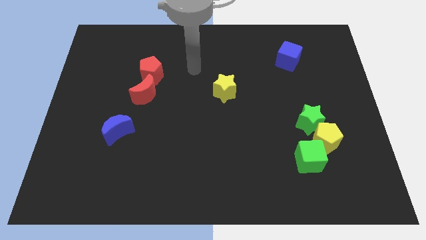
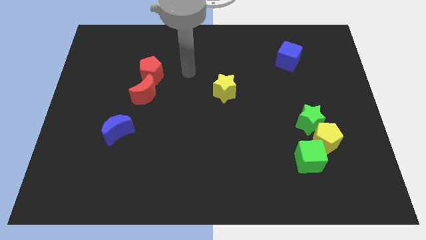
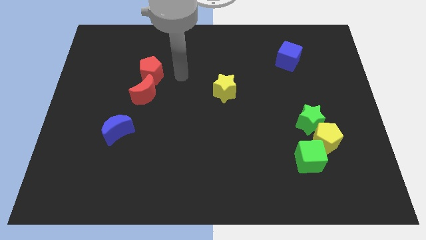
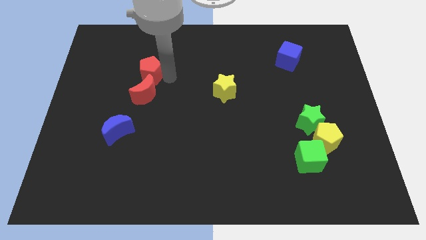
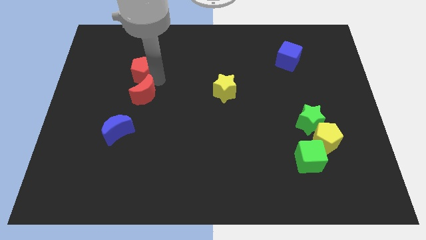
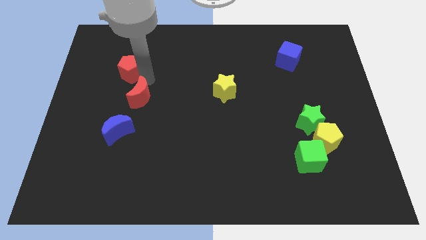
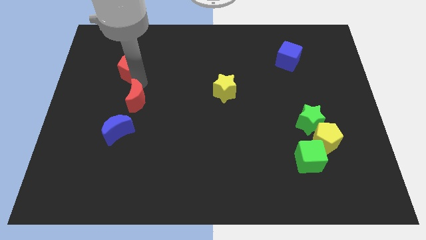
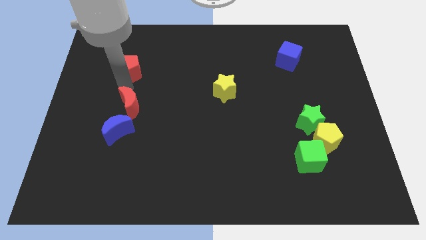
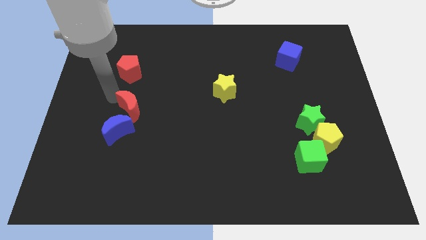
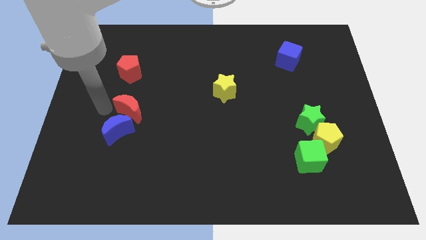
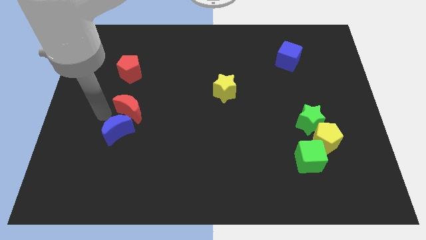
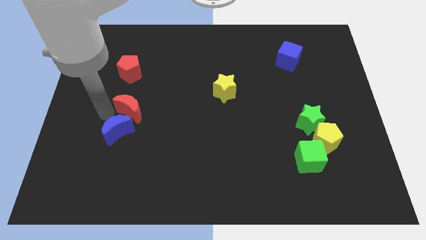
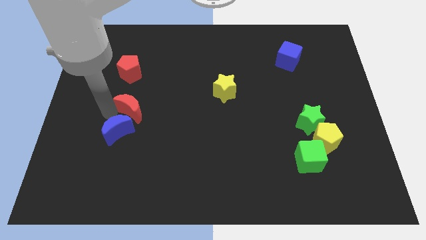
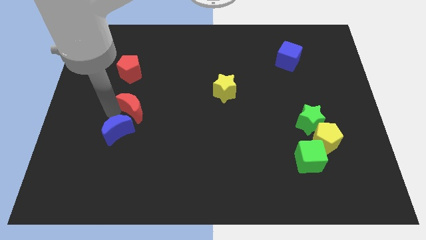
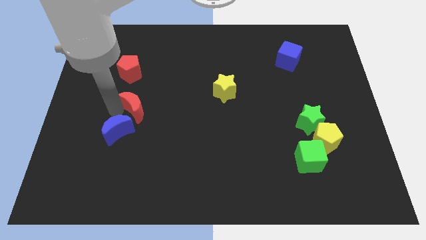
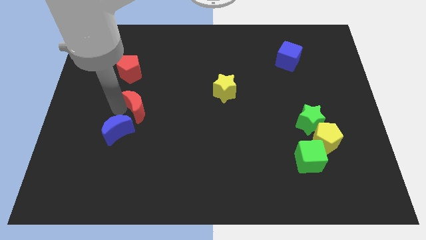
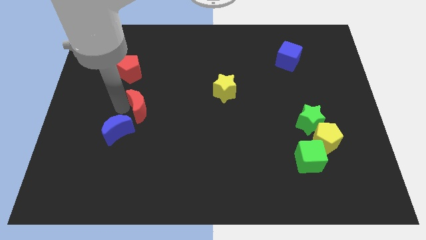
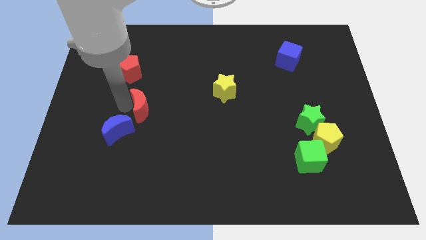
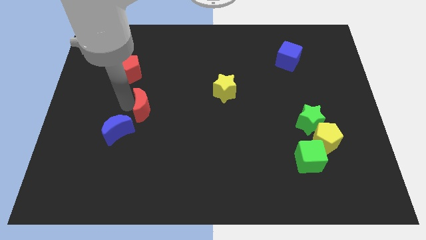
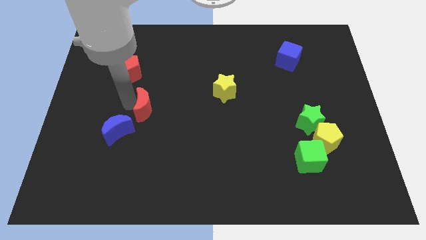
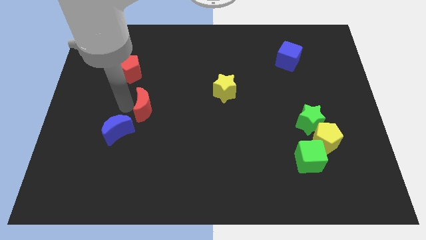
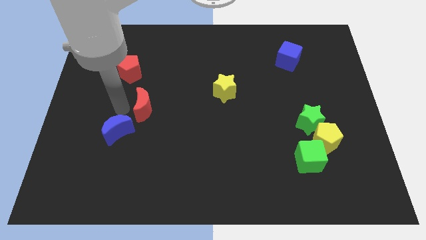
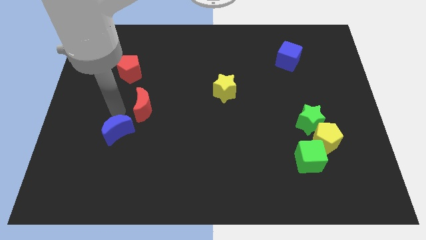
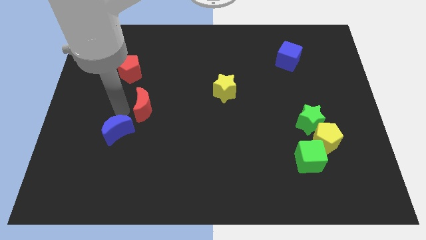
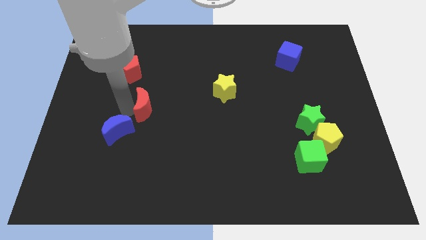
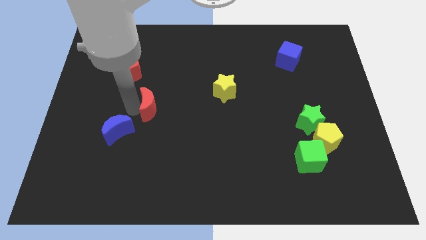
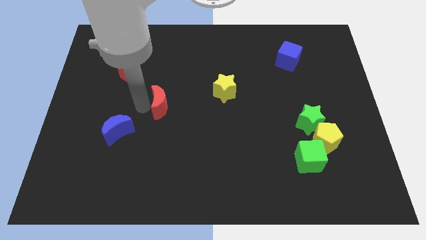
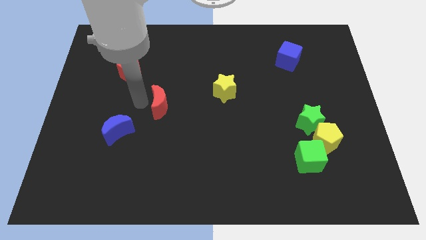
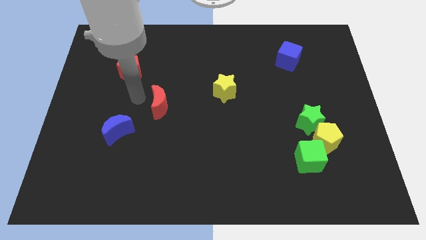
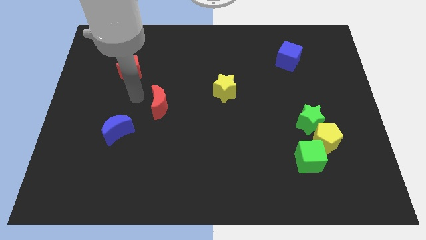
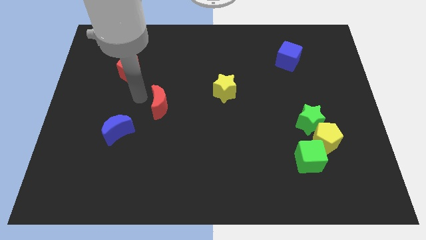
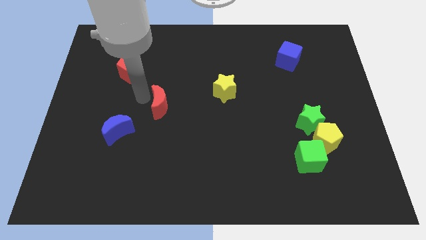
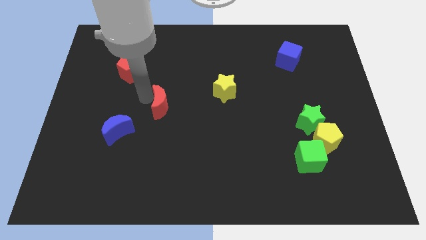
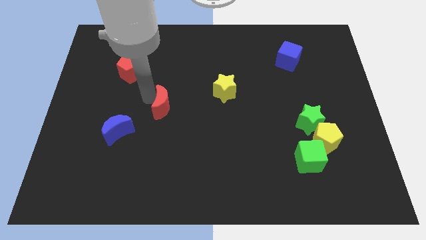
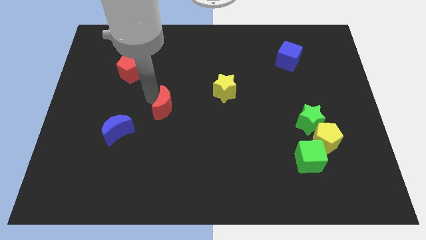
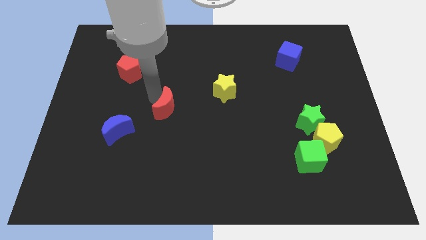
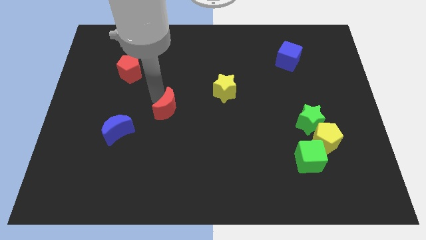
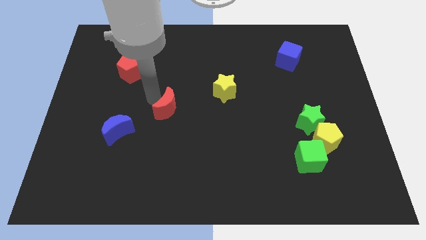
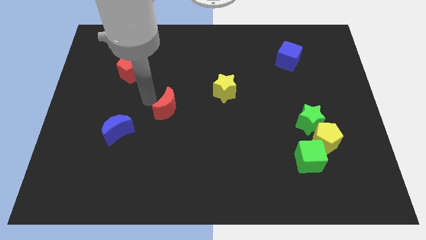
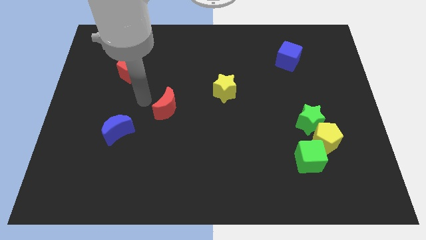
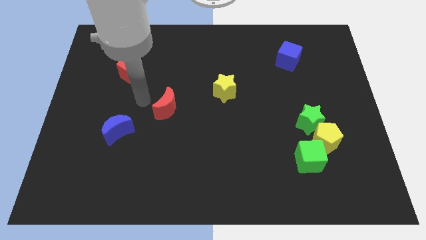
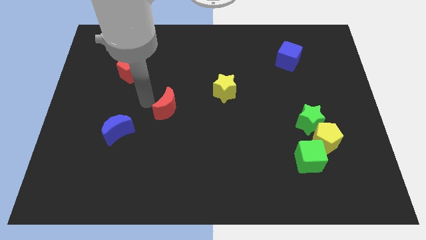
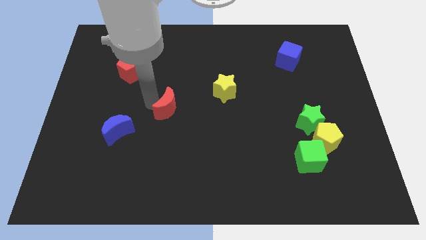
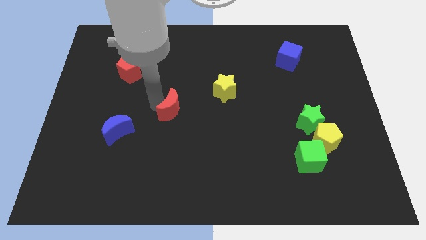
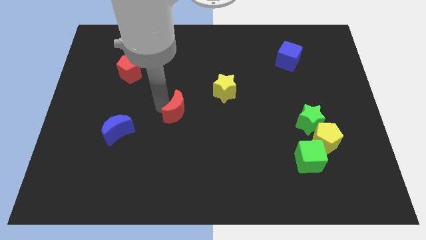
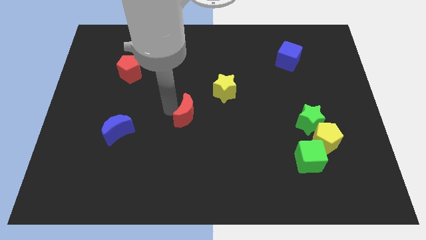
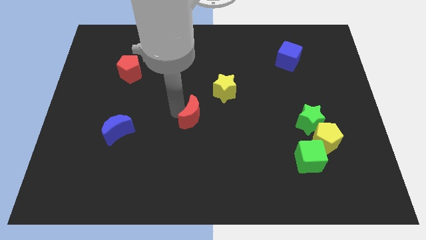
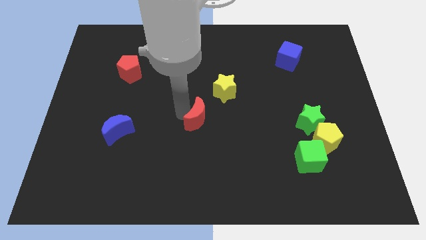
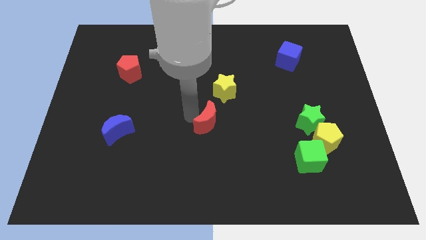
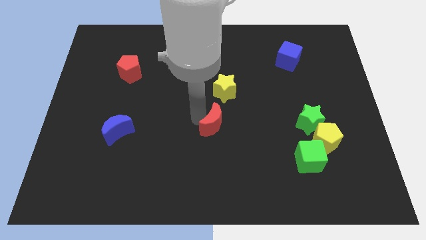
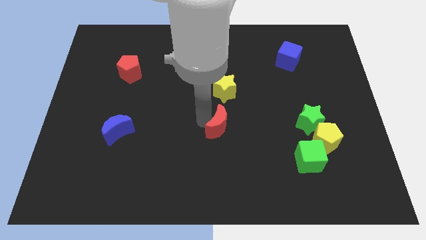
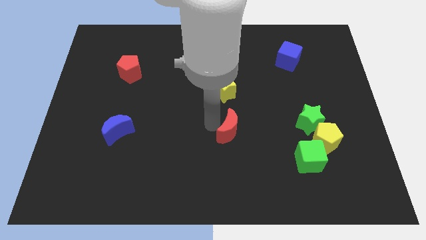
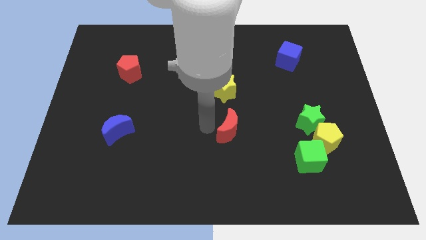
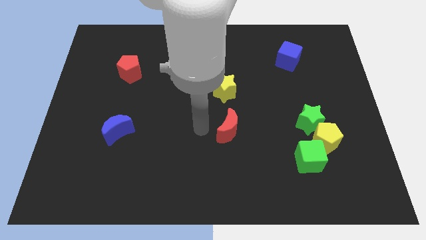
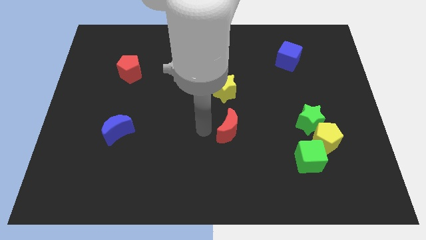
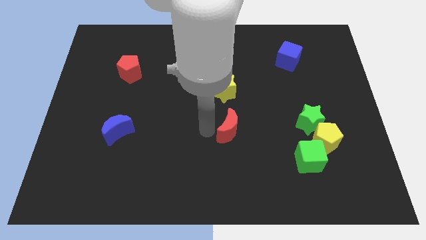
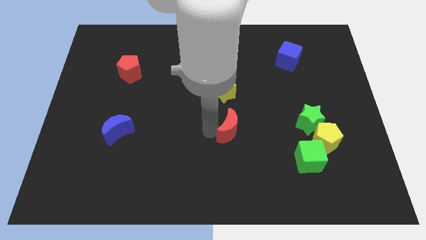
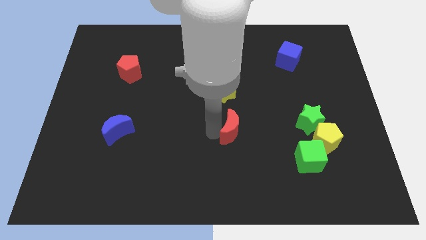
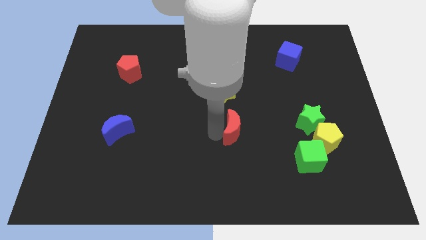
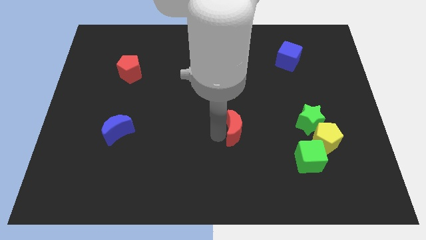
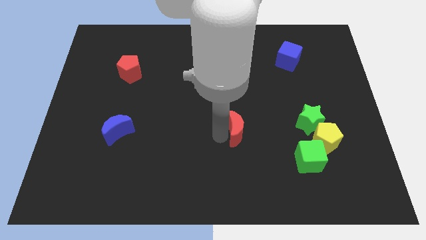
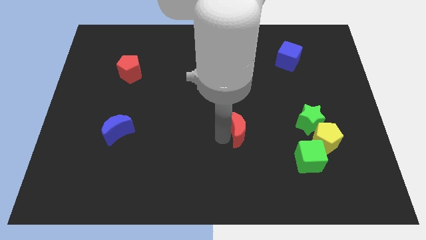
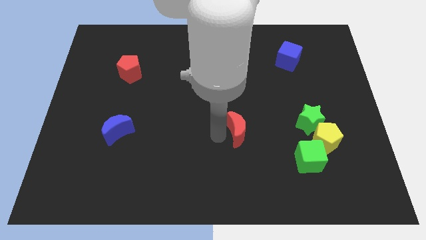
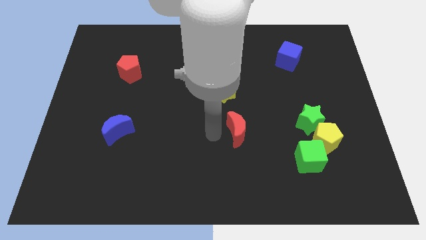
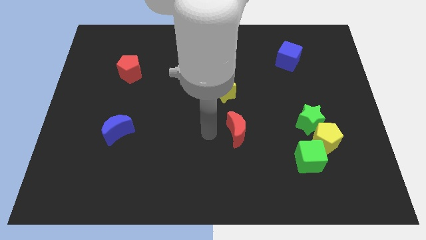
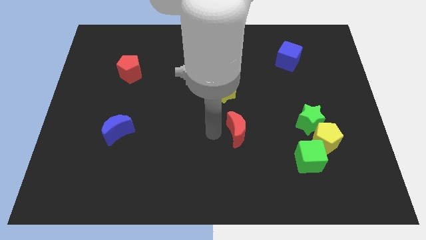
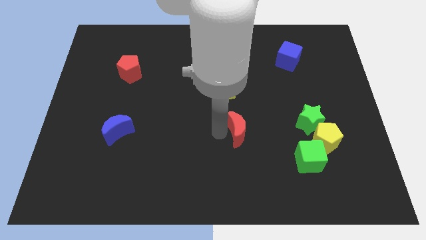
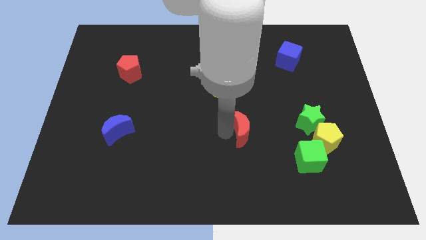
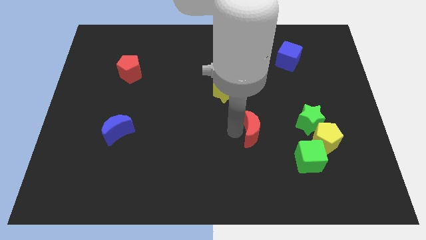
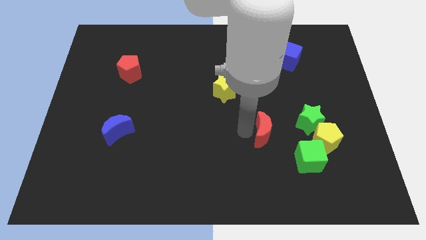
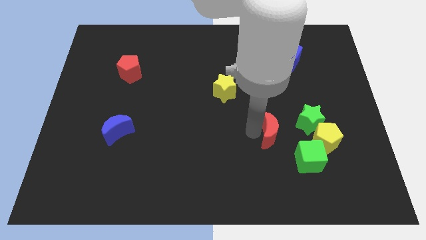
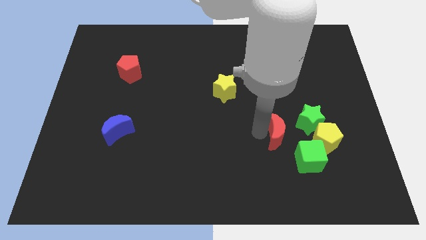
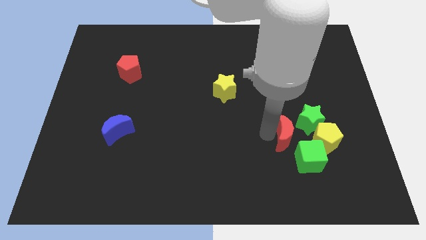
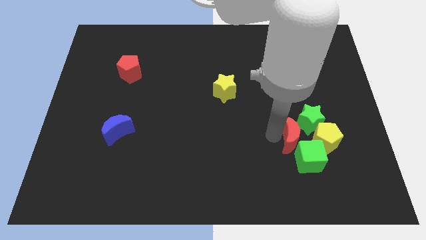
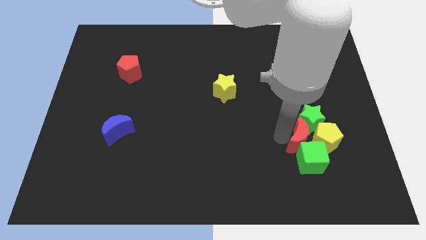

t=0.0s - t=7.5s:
push the red moon towards the yellow pentagon
